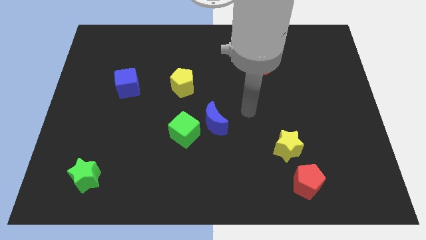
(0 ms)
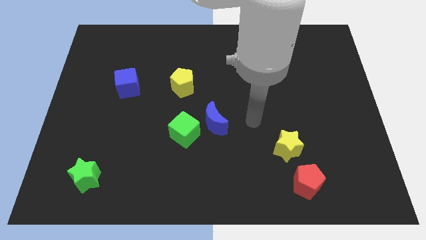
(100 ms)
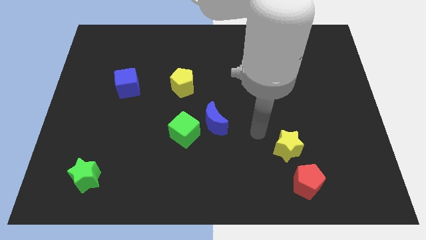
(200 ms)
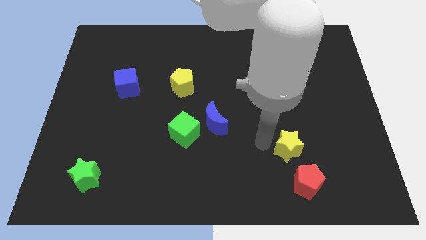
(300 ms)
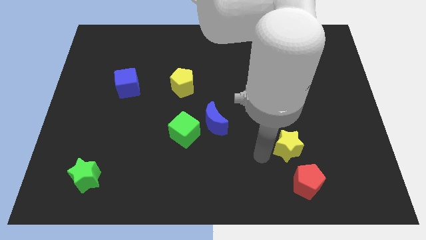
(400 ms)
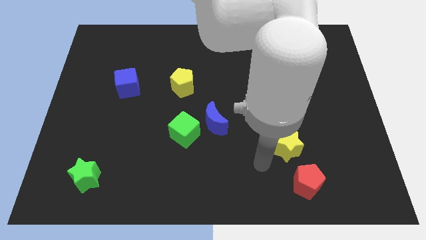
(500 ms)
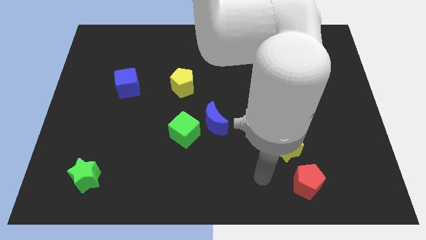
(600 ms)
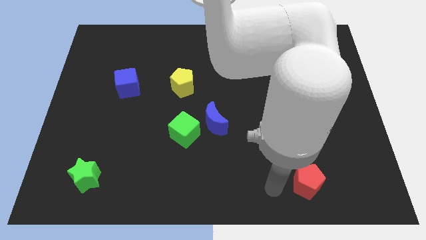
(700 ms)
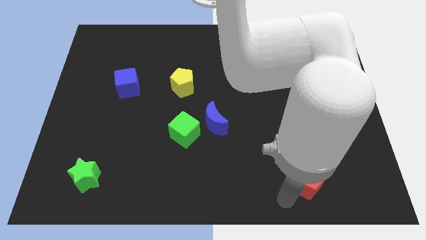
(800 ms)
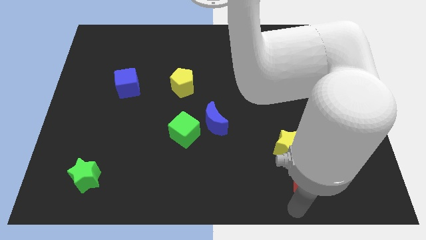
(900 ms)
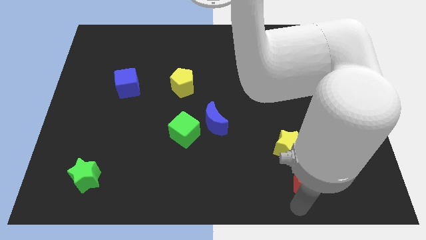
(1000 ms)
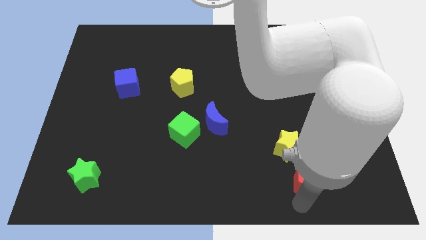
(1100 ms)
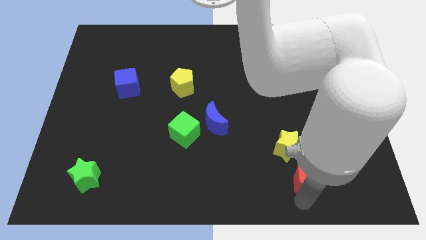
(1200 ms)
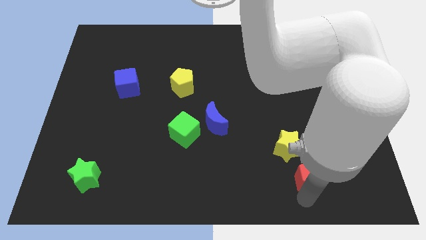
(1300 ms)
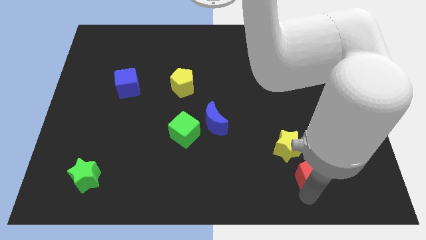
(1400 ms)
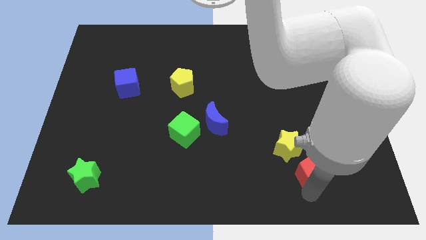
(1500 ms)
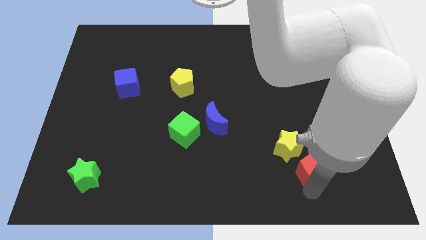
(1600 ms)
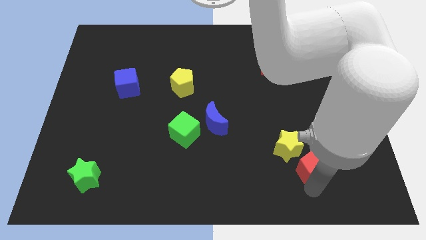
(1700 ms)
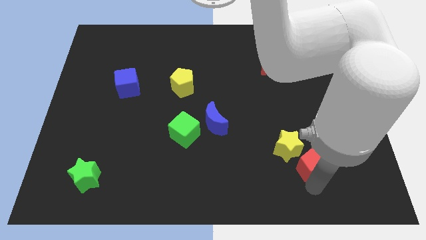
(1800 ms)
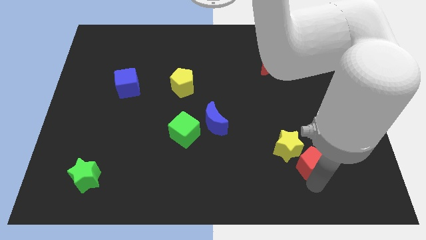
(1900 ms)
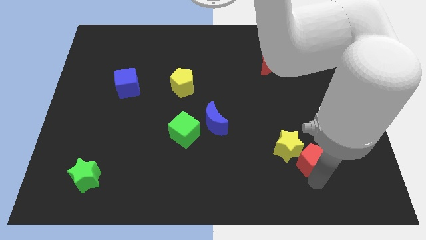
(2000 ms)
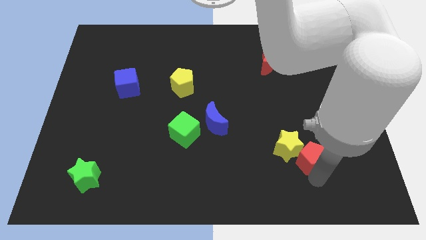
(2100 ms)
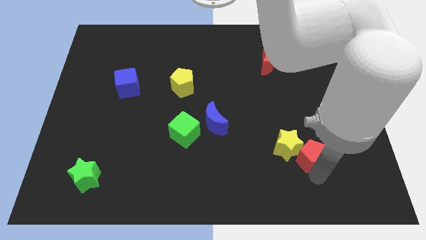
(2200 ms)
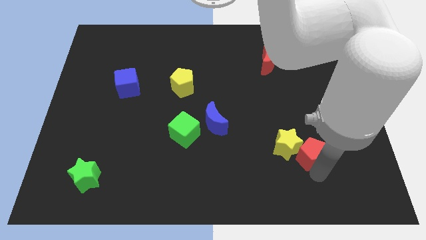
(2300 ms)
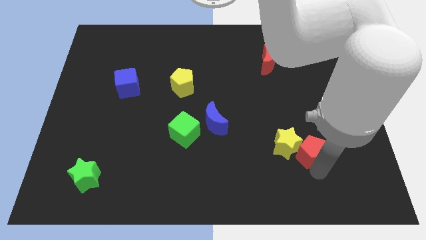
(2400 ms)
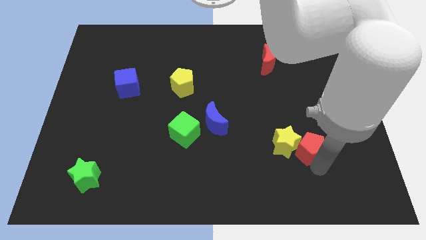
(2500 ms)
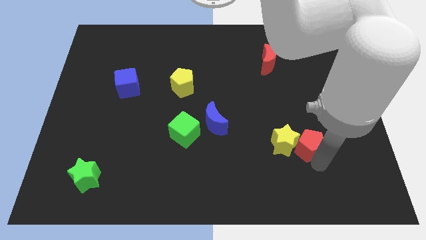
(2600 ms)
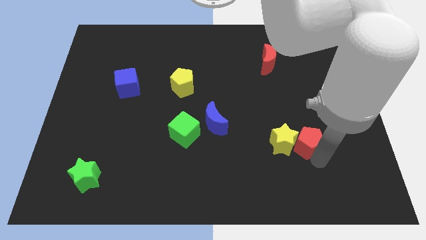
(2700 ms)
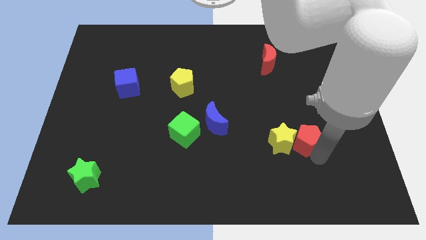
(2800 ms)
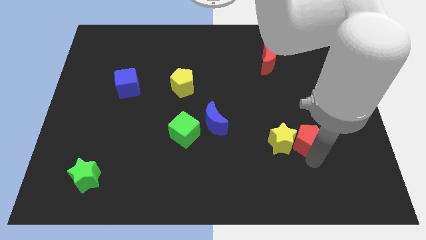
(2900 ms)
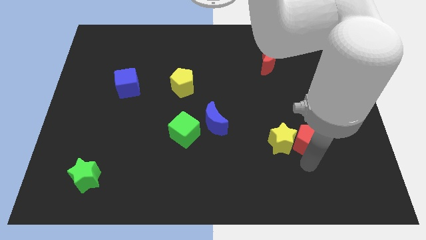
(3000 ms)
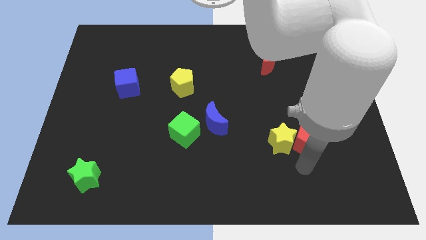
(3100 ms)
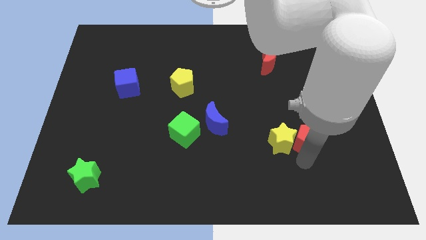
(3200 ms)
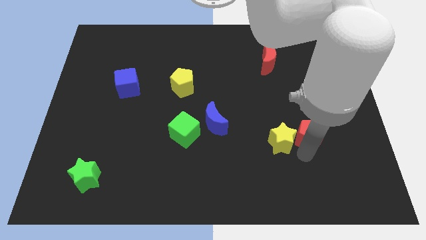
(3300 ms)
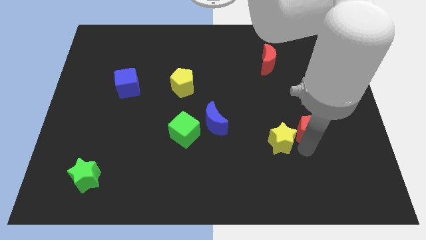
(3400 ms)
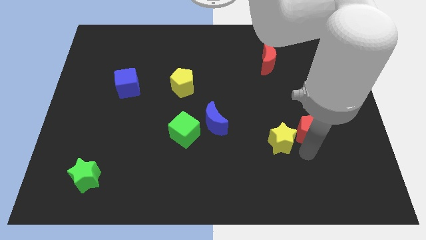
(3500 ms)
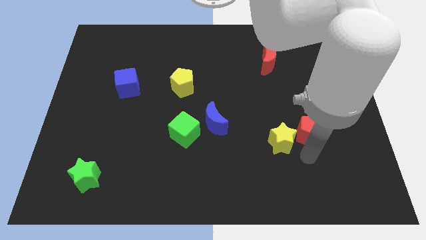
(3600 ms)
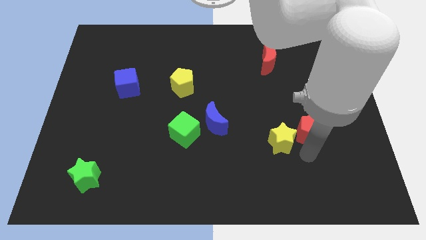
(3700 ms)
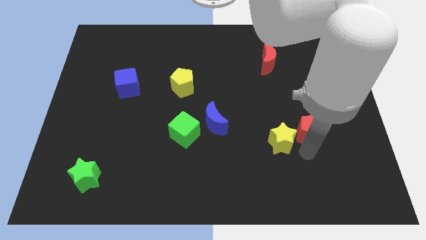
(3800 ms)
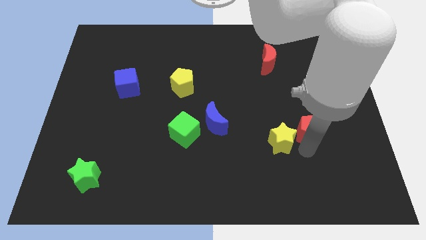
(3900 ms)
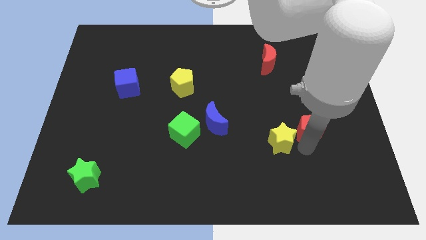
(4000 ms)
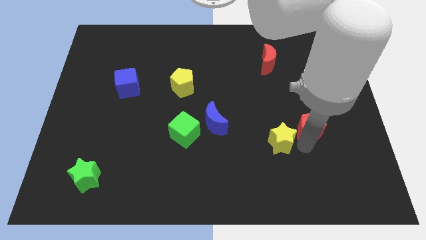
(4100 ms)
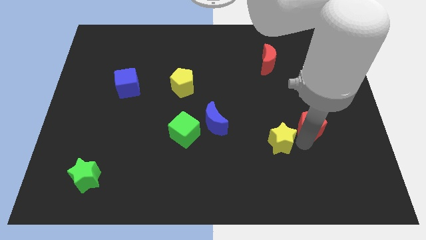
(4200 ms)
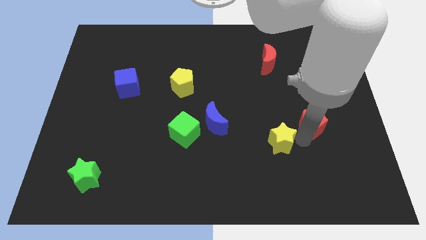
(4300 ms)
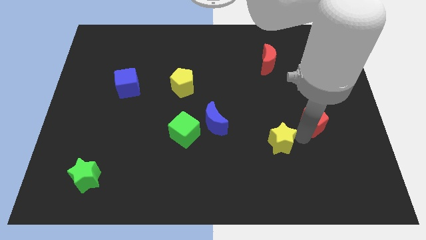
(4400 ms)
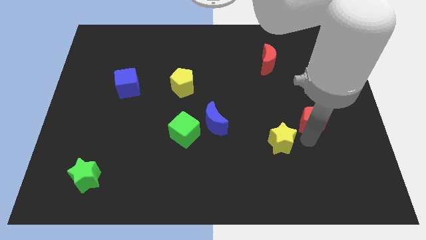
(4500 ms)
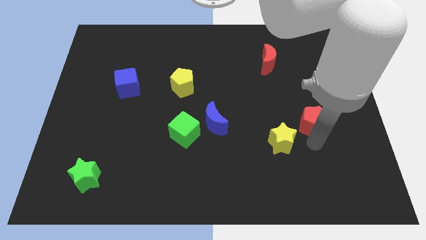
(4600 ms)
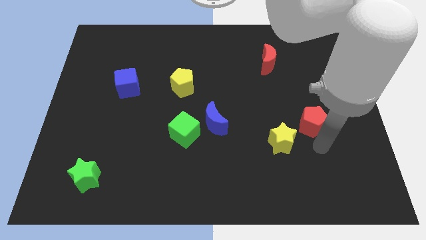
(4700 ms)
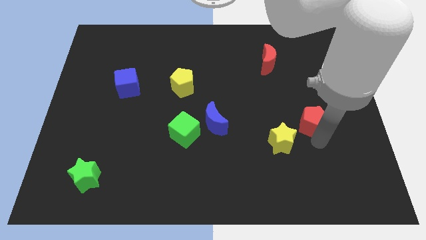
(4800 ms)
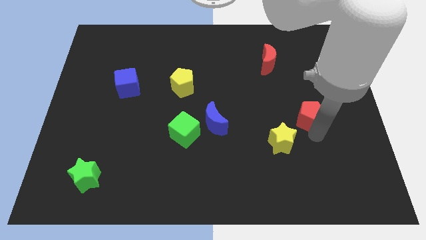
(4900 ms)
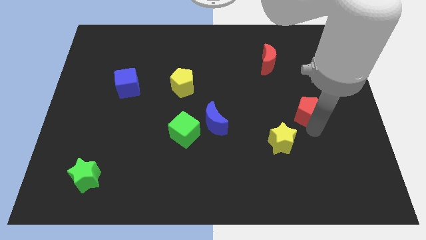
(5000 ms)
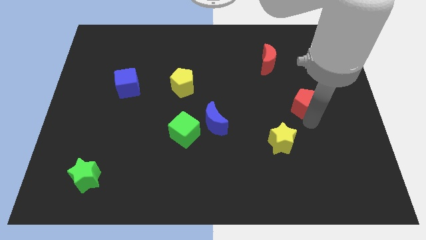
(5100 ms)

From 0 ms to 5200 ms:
move the red pentagon upwards

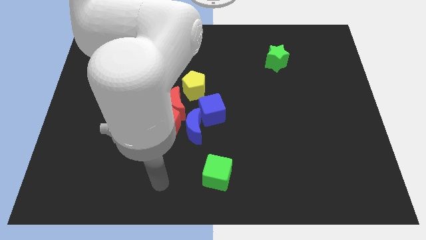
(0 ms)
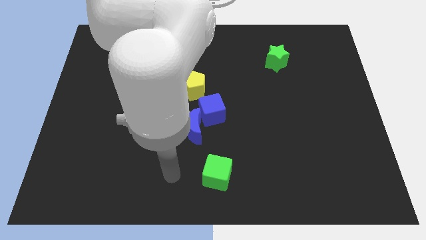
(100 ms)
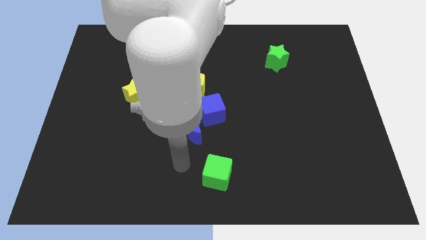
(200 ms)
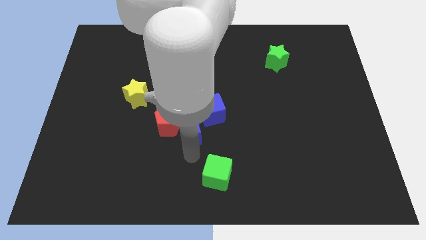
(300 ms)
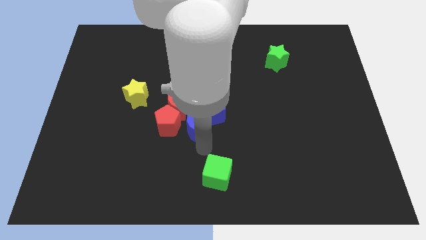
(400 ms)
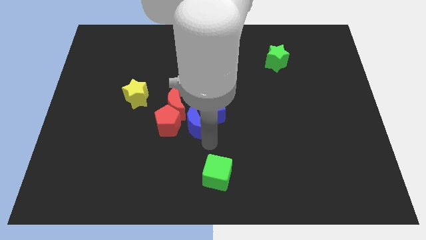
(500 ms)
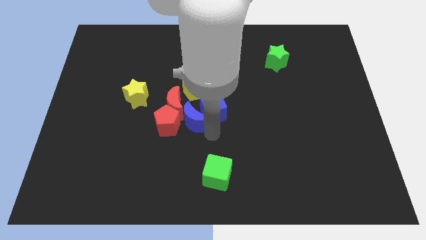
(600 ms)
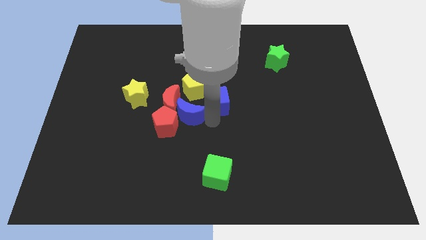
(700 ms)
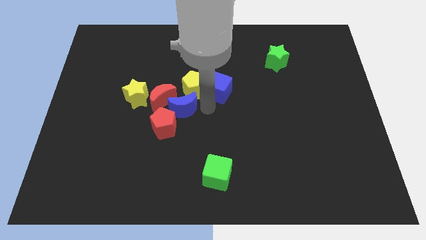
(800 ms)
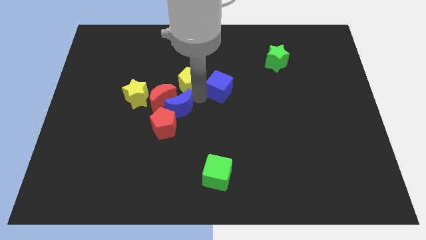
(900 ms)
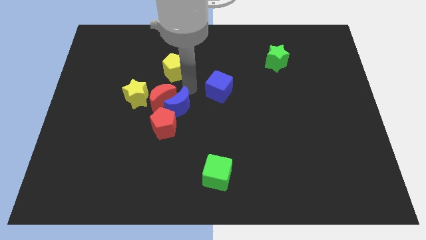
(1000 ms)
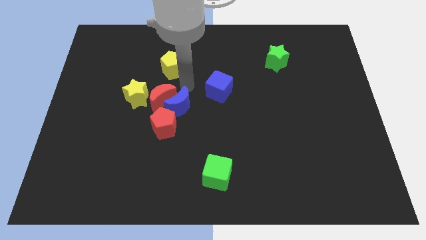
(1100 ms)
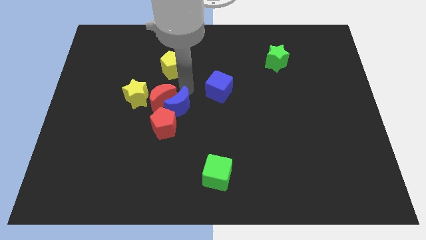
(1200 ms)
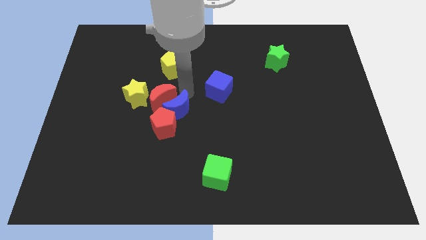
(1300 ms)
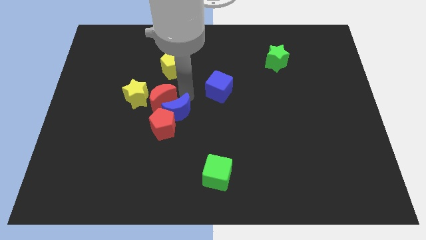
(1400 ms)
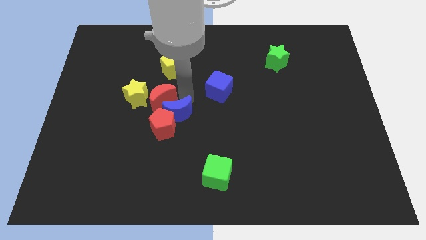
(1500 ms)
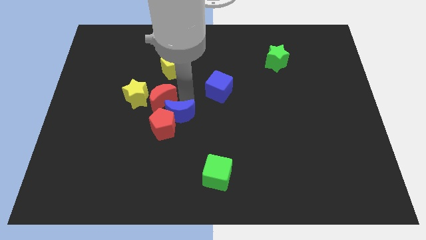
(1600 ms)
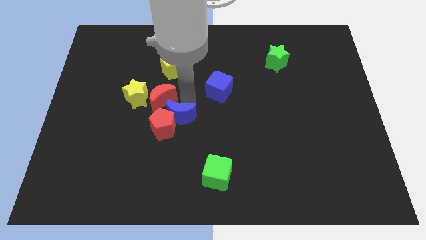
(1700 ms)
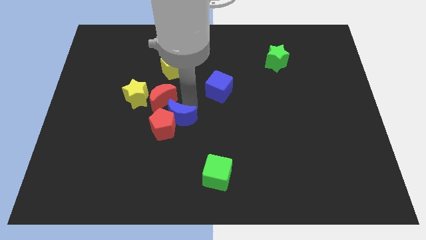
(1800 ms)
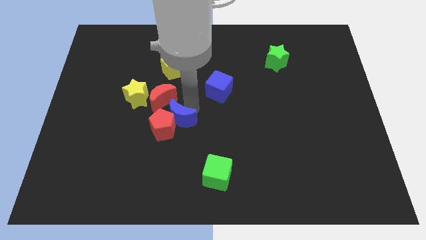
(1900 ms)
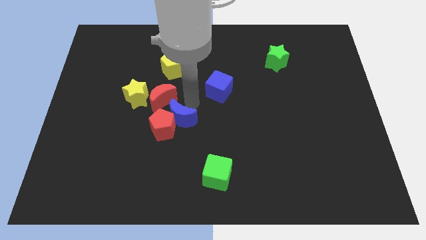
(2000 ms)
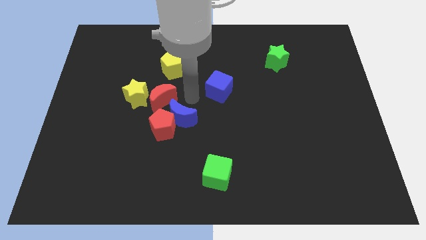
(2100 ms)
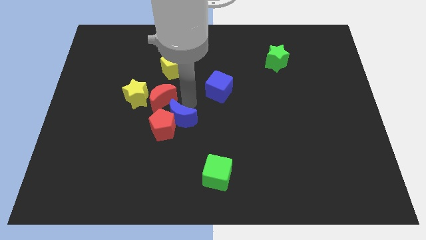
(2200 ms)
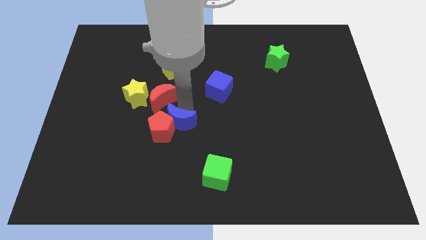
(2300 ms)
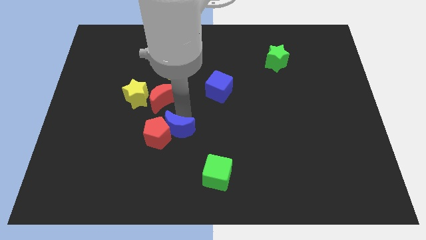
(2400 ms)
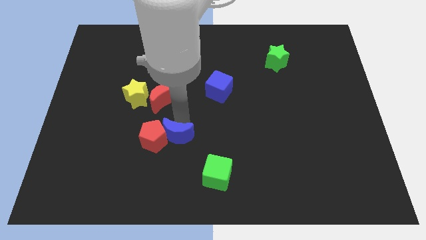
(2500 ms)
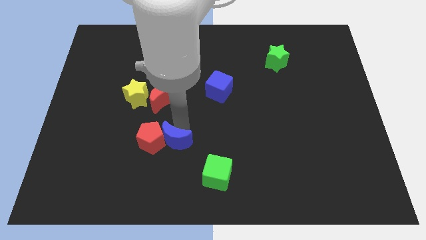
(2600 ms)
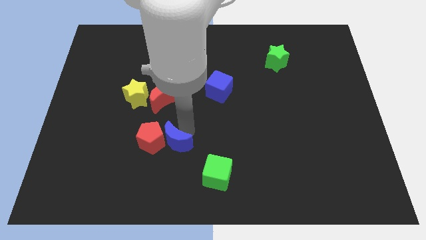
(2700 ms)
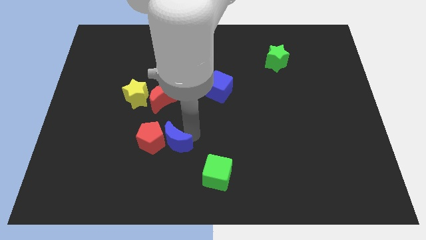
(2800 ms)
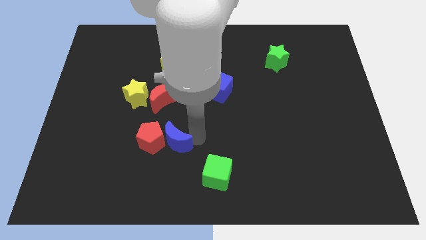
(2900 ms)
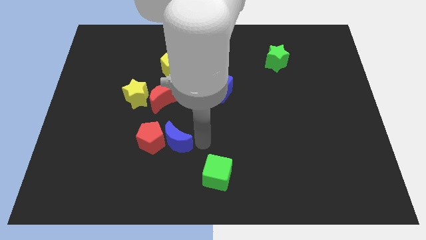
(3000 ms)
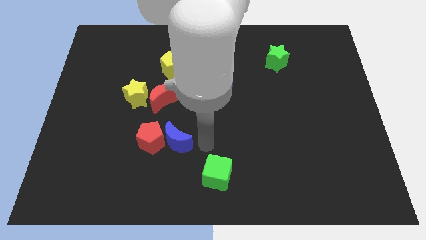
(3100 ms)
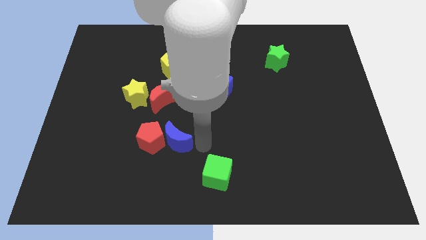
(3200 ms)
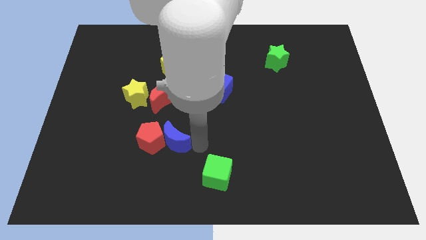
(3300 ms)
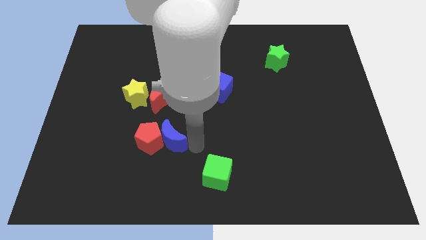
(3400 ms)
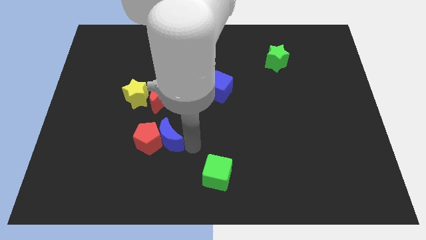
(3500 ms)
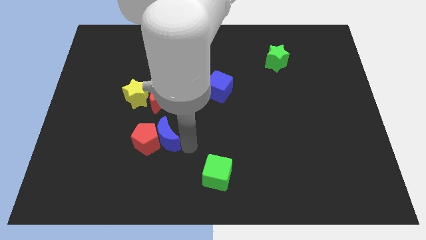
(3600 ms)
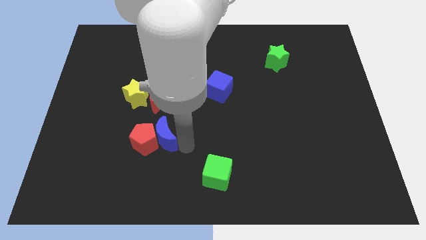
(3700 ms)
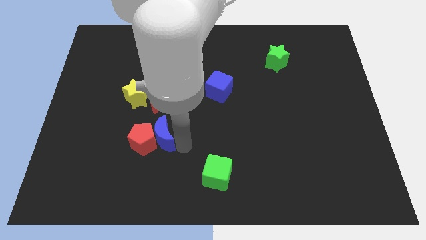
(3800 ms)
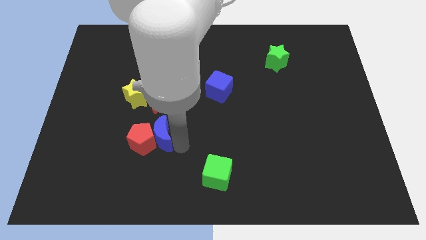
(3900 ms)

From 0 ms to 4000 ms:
slightly slide the blue moon to the left
